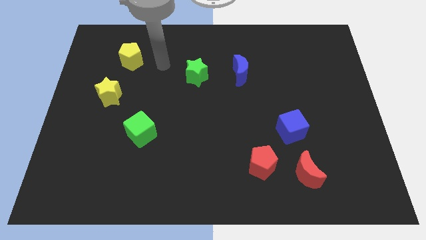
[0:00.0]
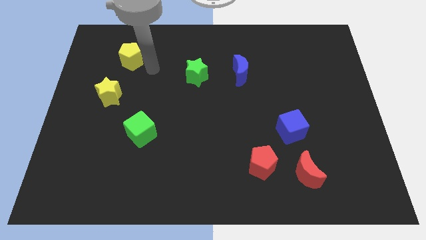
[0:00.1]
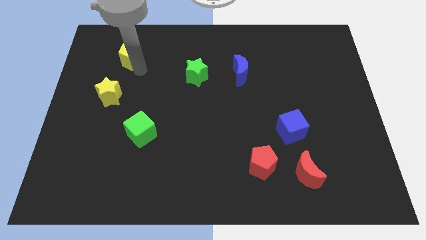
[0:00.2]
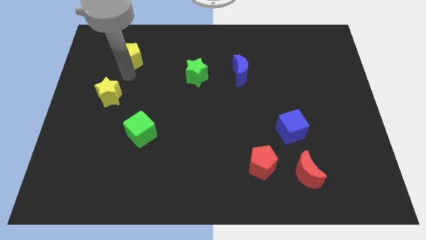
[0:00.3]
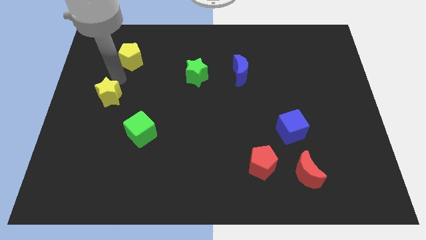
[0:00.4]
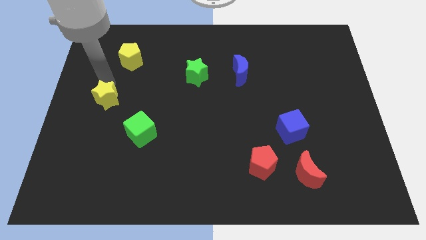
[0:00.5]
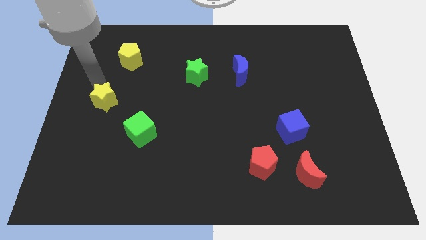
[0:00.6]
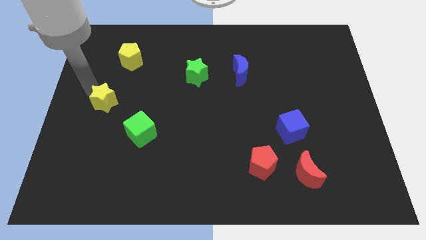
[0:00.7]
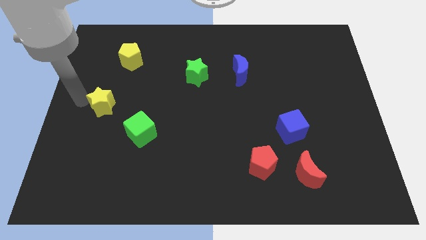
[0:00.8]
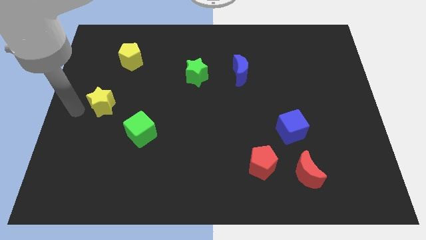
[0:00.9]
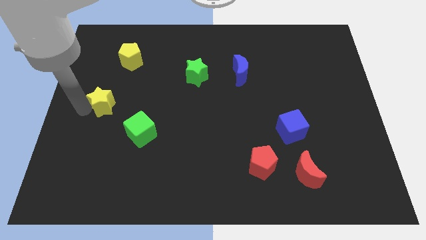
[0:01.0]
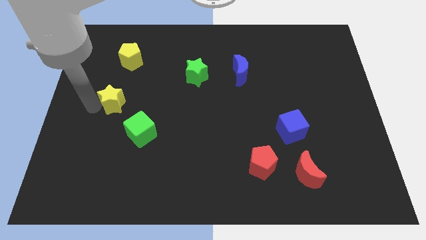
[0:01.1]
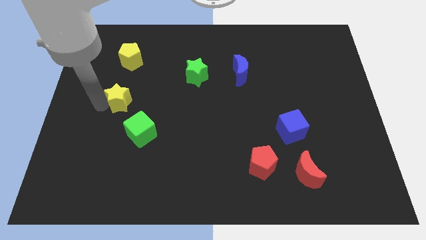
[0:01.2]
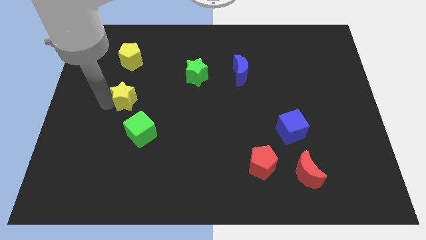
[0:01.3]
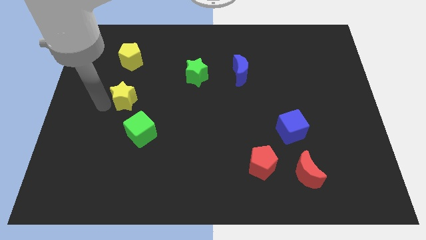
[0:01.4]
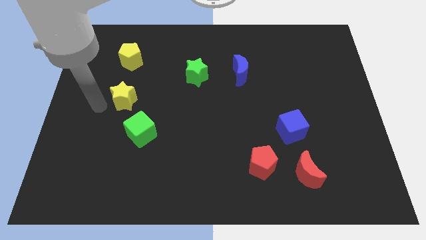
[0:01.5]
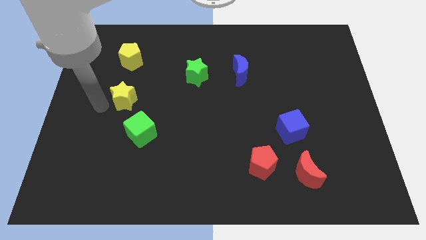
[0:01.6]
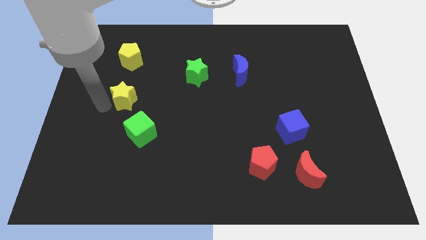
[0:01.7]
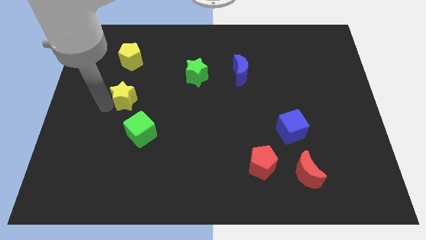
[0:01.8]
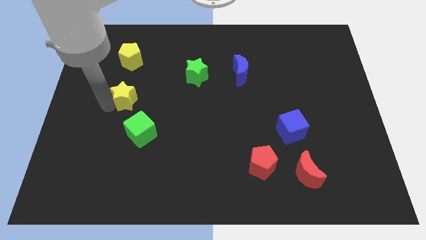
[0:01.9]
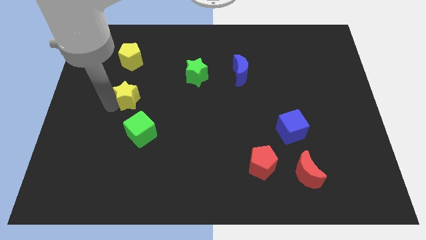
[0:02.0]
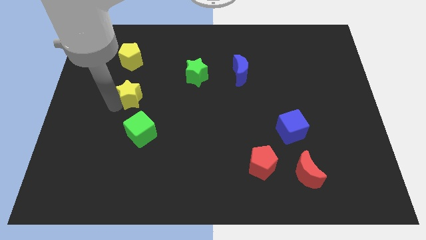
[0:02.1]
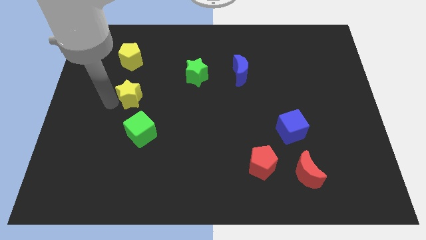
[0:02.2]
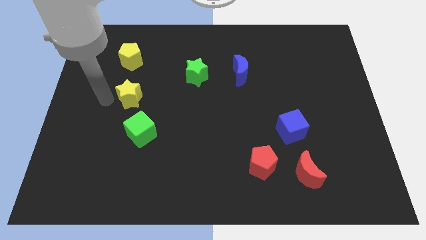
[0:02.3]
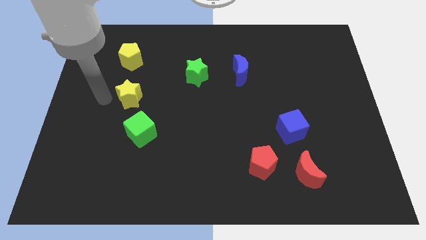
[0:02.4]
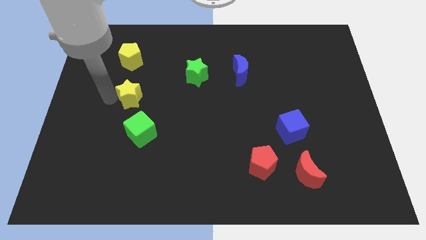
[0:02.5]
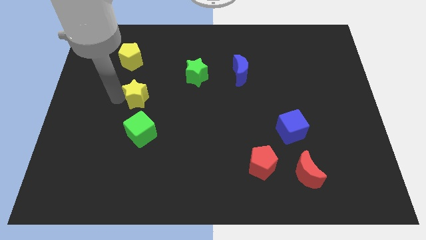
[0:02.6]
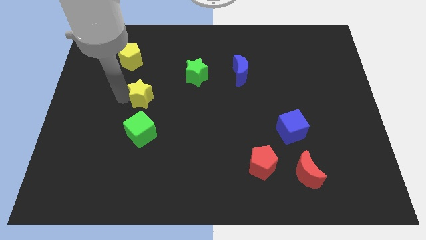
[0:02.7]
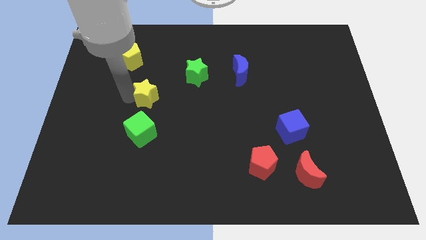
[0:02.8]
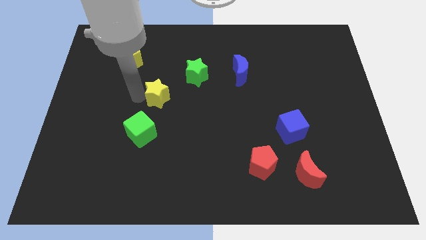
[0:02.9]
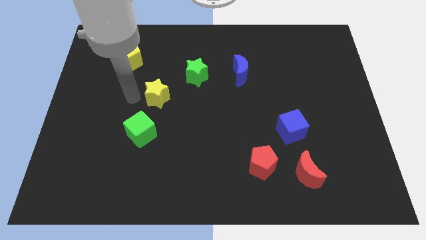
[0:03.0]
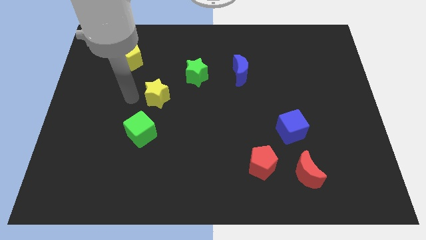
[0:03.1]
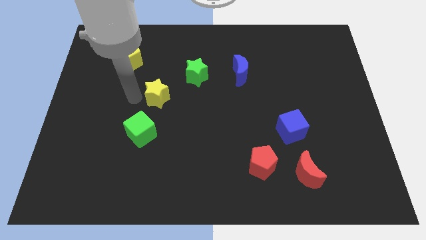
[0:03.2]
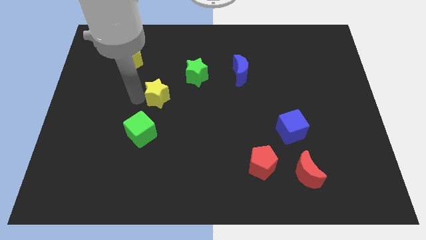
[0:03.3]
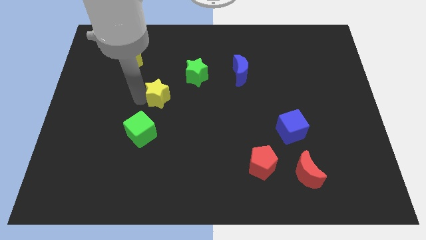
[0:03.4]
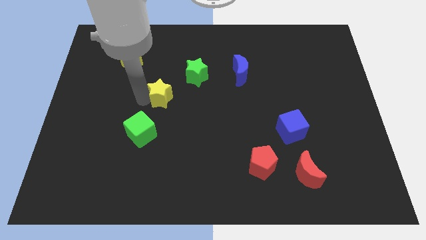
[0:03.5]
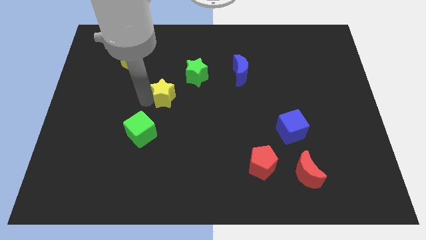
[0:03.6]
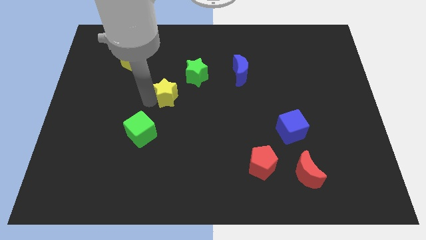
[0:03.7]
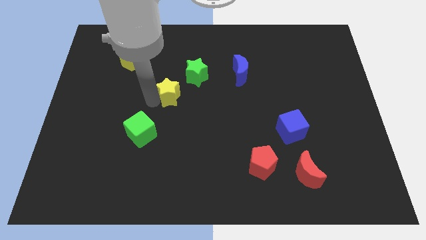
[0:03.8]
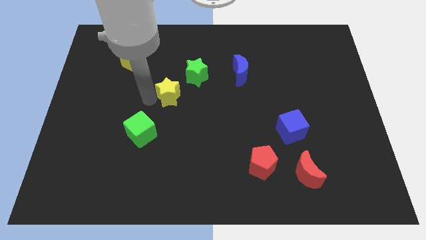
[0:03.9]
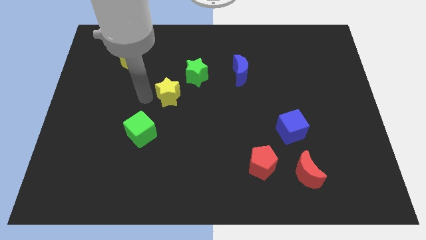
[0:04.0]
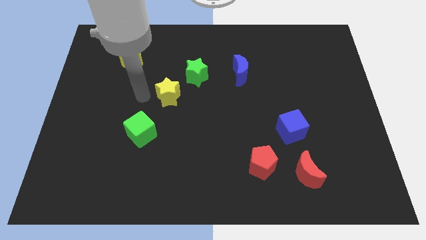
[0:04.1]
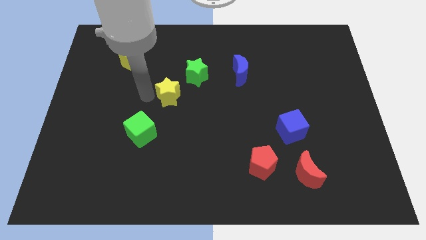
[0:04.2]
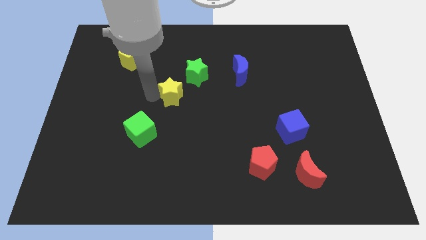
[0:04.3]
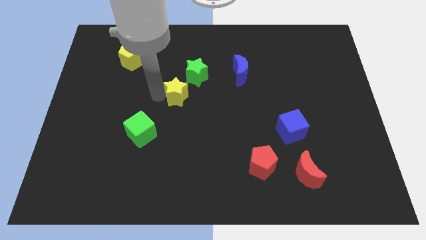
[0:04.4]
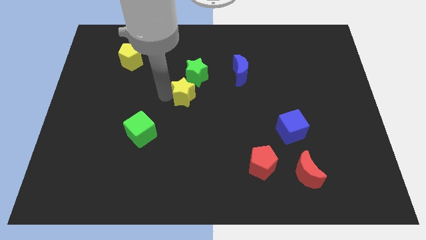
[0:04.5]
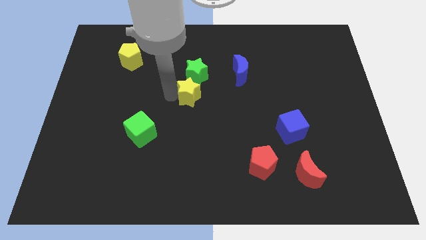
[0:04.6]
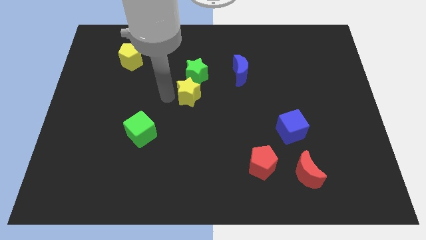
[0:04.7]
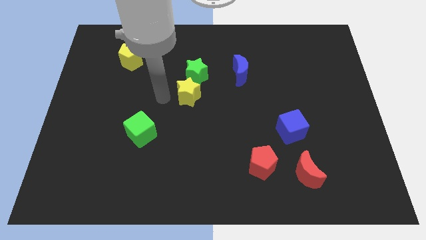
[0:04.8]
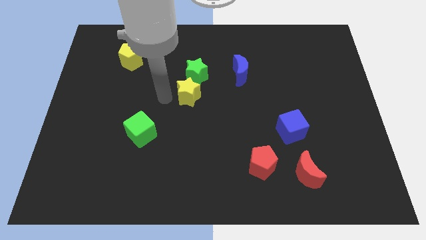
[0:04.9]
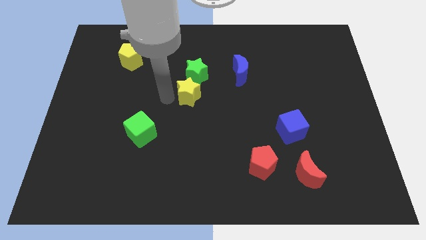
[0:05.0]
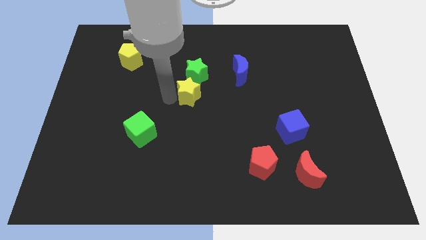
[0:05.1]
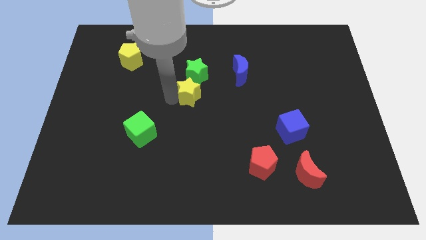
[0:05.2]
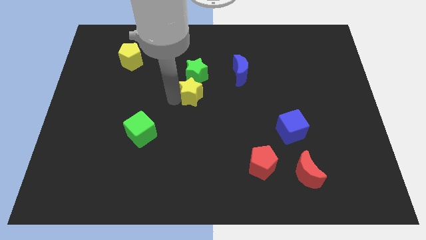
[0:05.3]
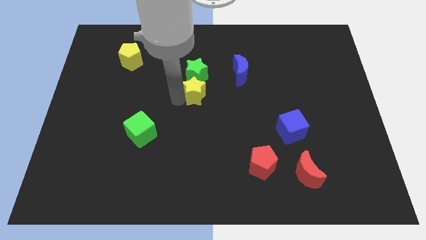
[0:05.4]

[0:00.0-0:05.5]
slide the yellow star to the right

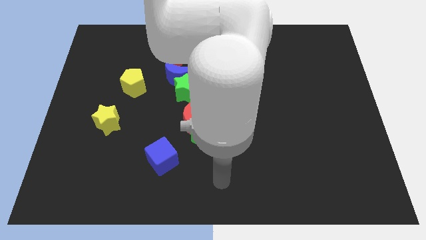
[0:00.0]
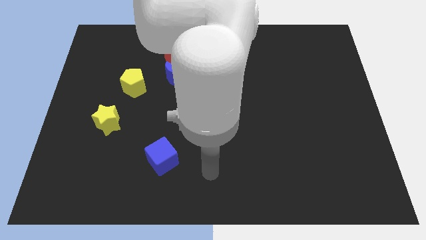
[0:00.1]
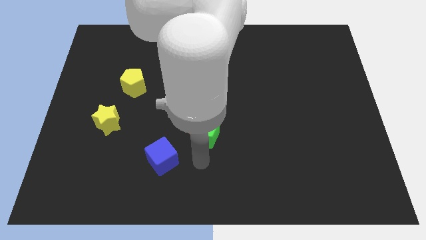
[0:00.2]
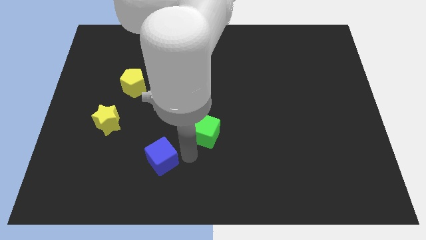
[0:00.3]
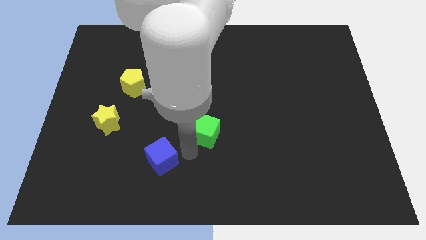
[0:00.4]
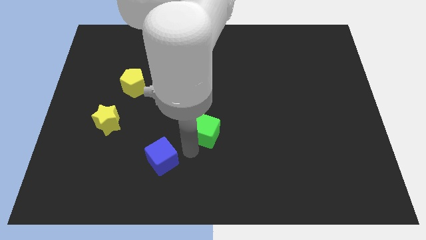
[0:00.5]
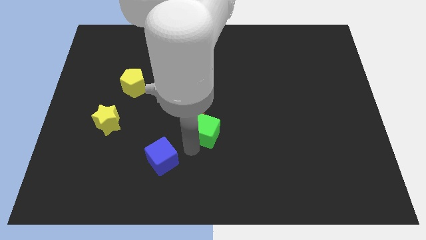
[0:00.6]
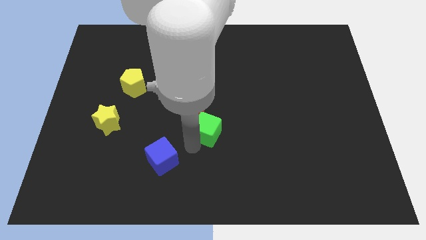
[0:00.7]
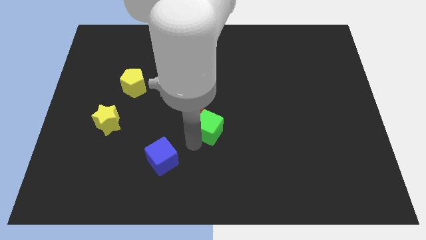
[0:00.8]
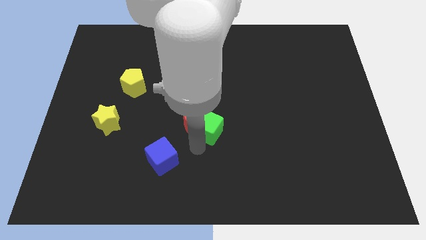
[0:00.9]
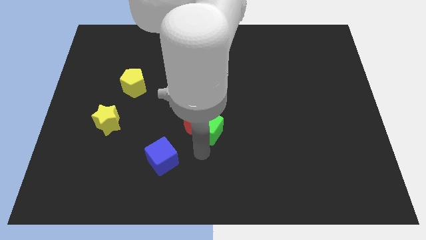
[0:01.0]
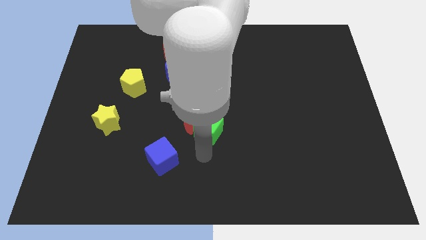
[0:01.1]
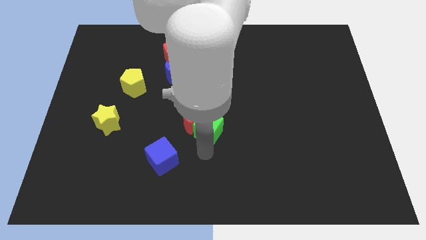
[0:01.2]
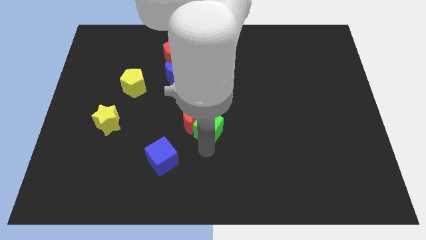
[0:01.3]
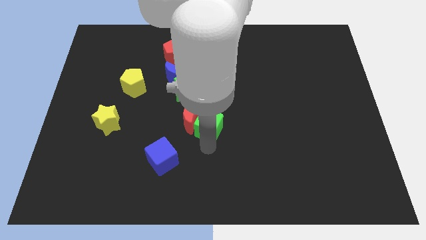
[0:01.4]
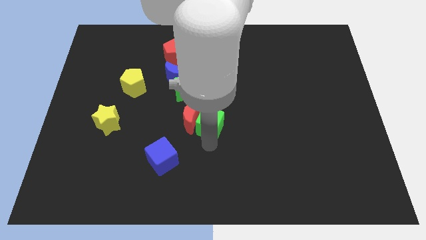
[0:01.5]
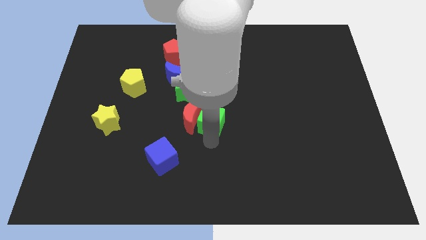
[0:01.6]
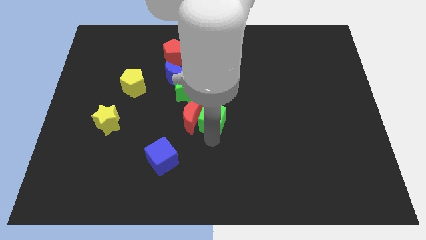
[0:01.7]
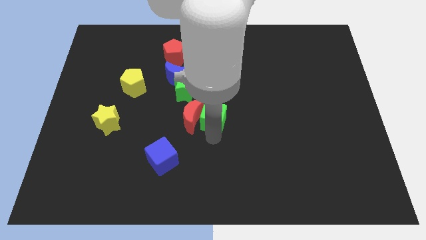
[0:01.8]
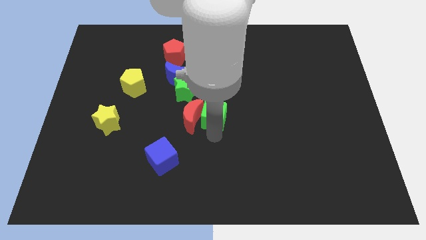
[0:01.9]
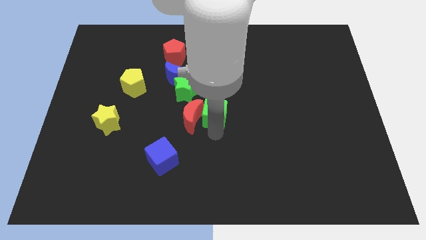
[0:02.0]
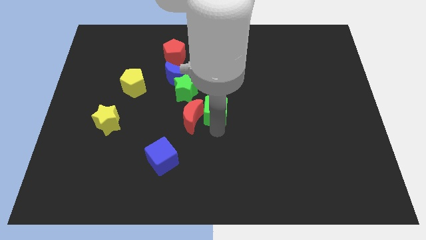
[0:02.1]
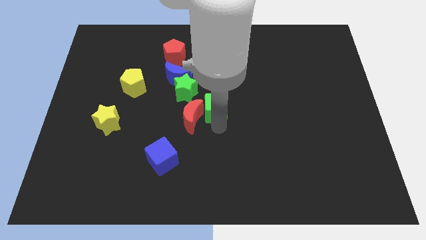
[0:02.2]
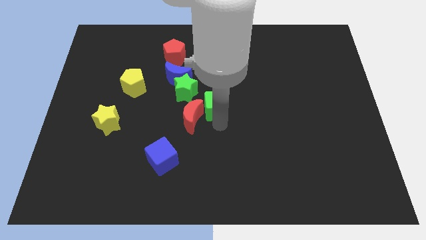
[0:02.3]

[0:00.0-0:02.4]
slide the green cube upwards a bit

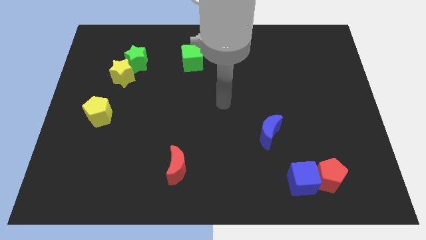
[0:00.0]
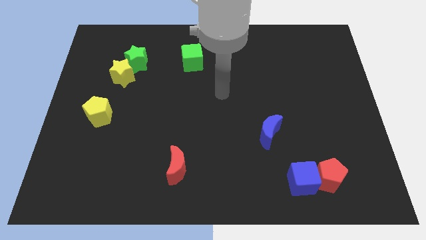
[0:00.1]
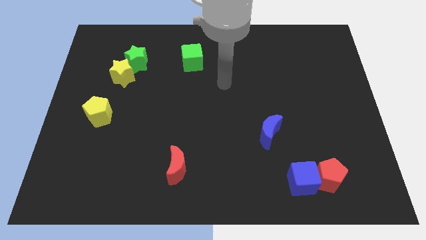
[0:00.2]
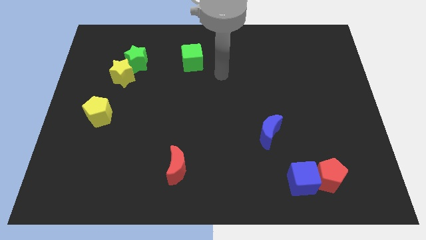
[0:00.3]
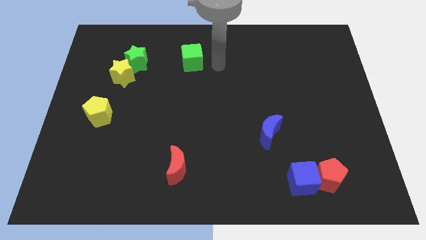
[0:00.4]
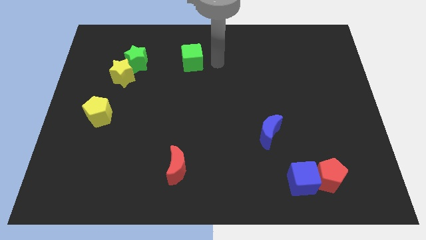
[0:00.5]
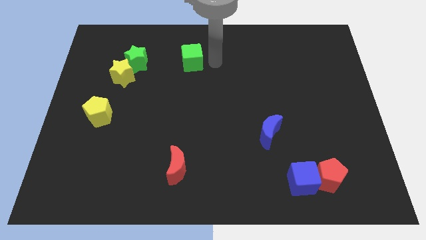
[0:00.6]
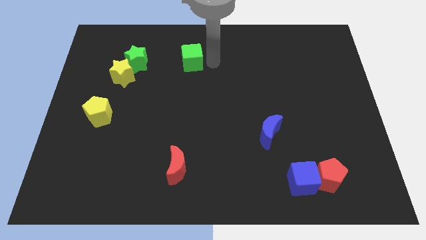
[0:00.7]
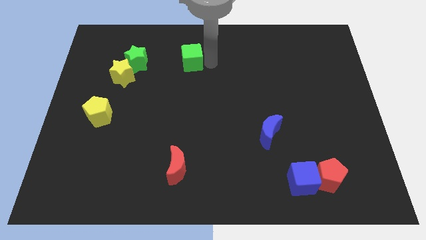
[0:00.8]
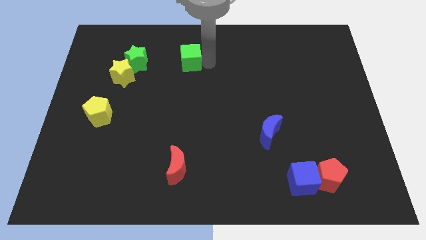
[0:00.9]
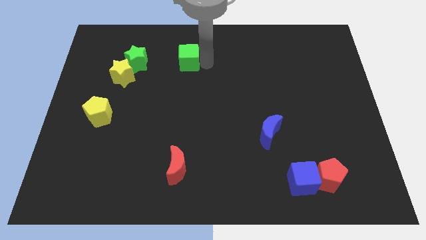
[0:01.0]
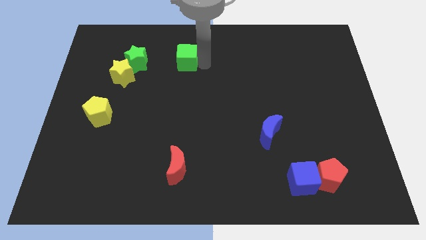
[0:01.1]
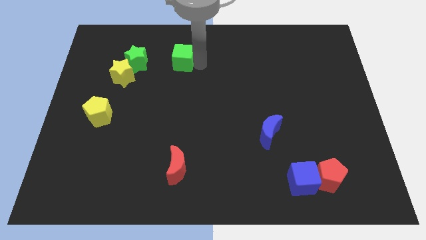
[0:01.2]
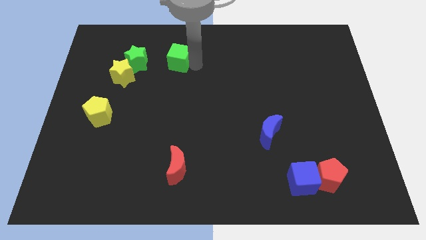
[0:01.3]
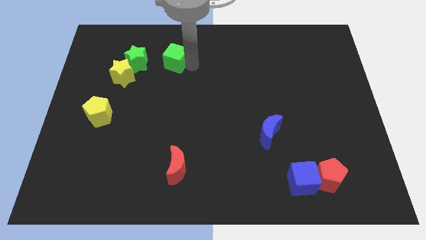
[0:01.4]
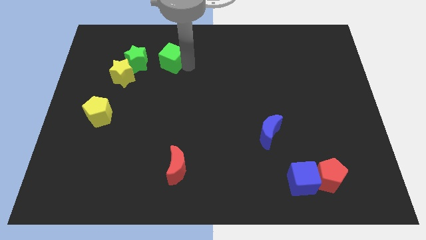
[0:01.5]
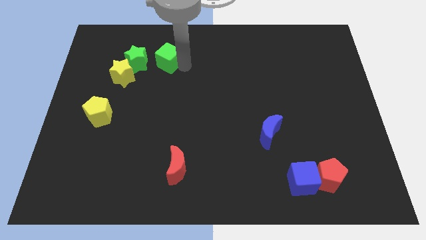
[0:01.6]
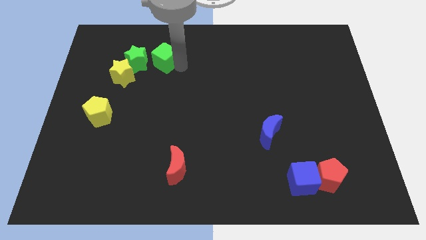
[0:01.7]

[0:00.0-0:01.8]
push the green cube left a bit
